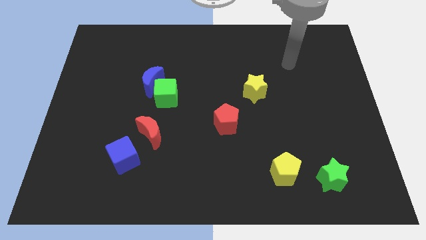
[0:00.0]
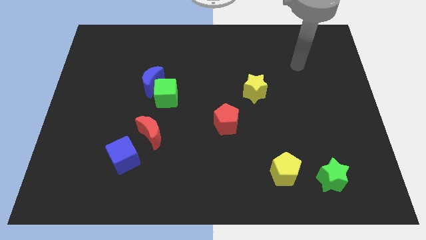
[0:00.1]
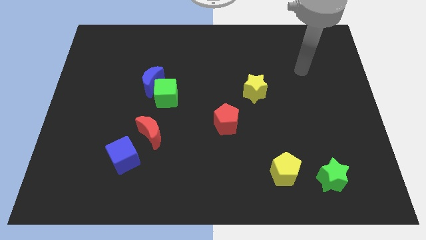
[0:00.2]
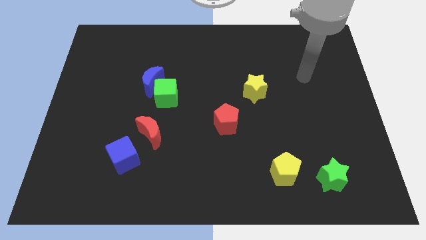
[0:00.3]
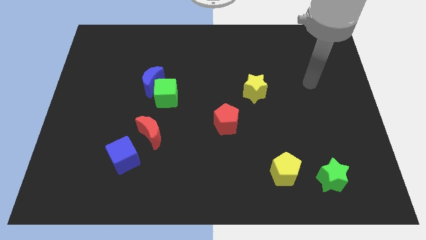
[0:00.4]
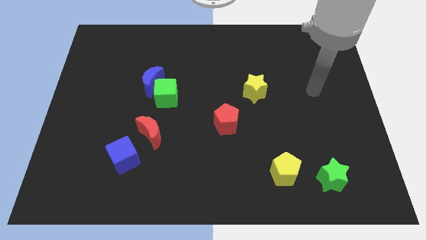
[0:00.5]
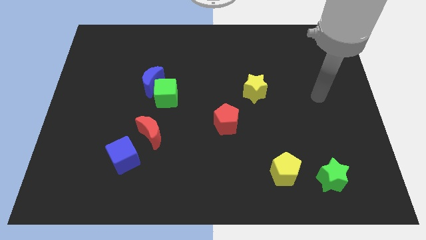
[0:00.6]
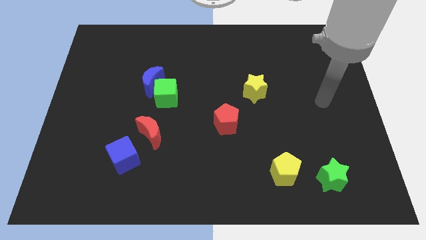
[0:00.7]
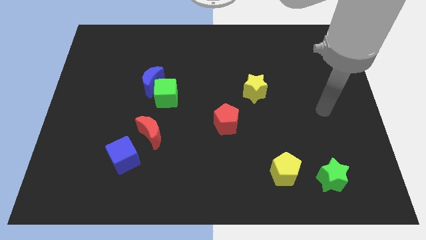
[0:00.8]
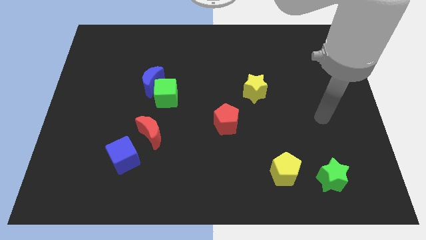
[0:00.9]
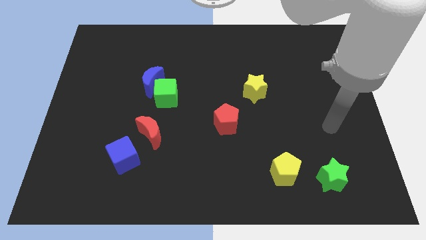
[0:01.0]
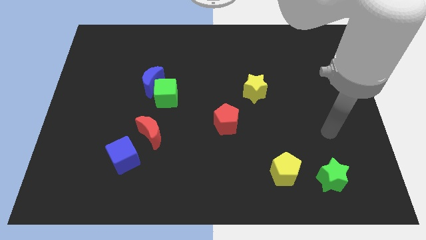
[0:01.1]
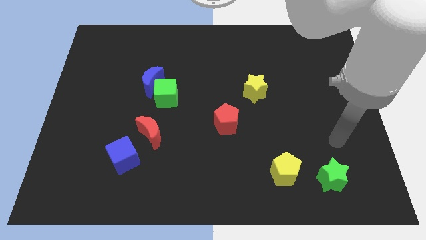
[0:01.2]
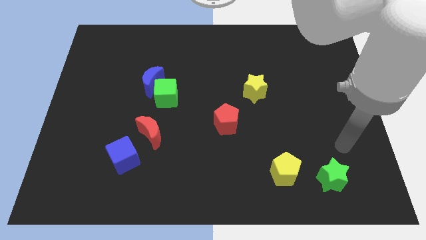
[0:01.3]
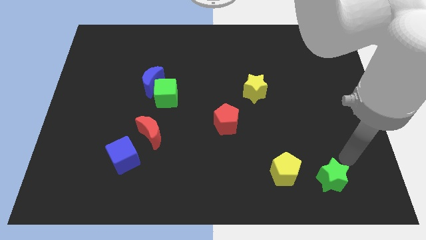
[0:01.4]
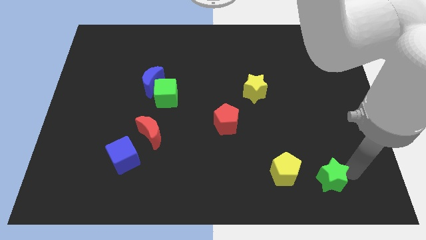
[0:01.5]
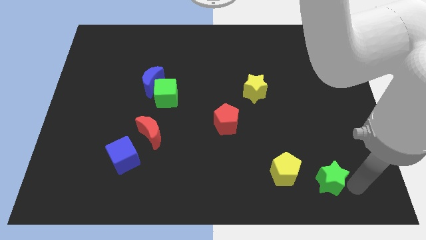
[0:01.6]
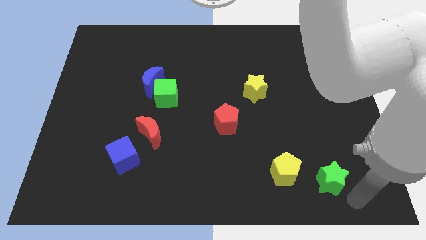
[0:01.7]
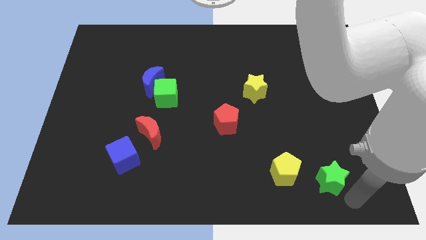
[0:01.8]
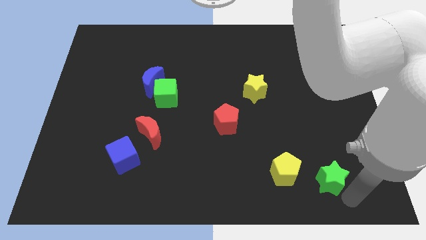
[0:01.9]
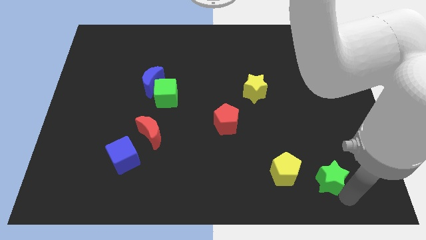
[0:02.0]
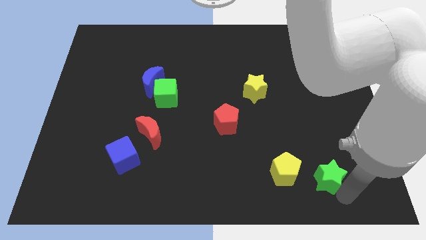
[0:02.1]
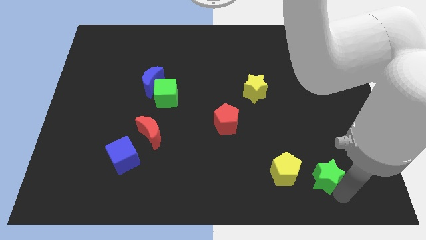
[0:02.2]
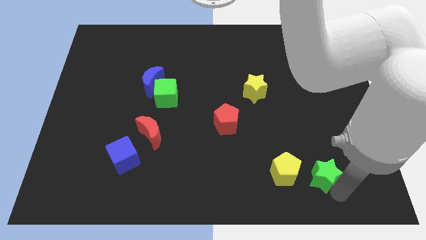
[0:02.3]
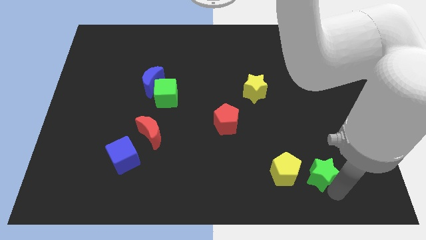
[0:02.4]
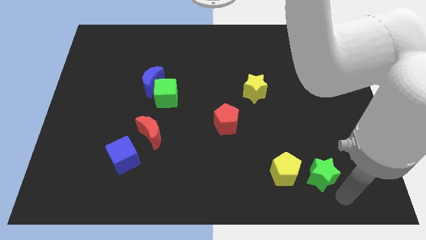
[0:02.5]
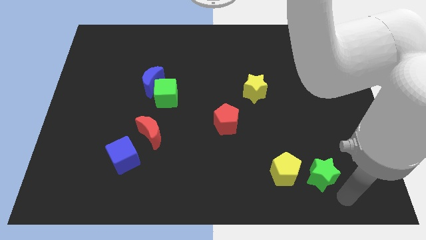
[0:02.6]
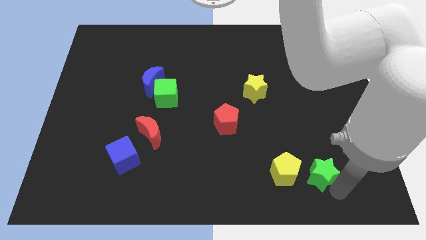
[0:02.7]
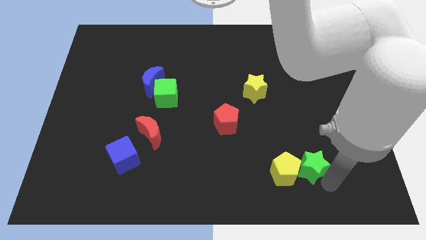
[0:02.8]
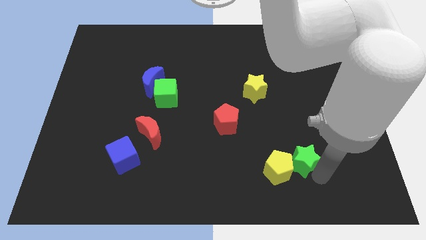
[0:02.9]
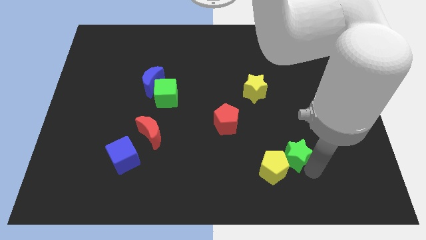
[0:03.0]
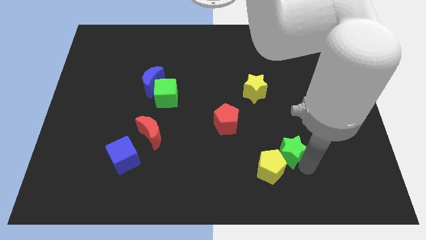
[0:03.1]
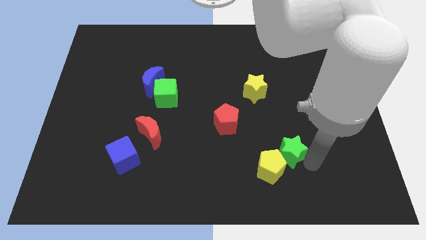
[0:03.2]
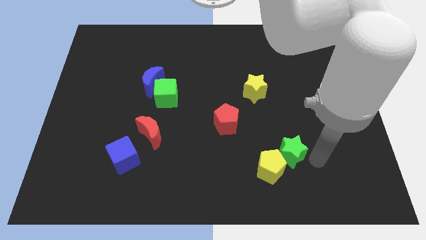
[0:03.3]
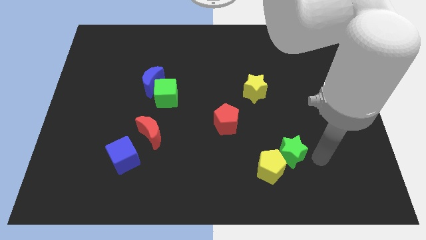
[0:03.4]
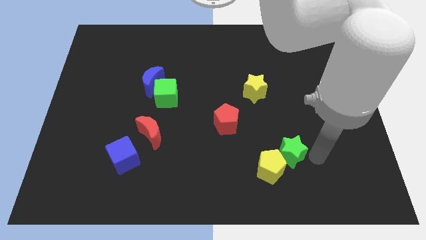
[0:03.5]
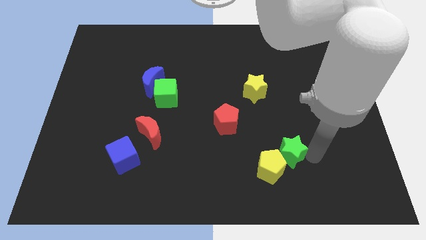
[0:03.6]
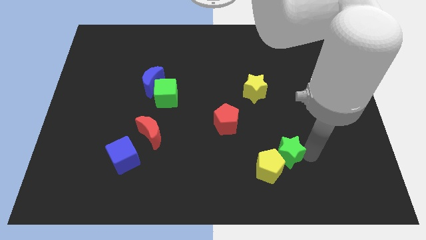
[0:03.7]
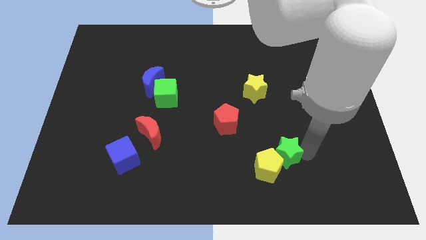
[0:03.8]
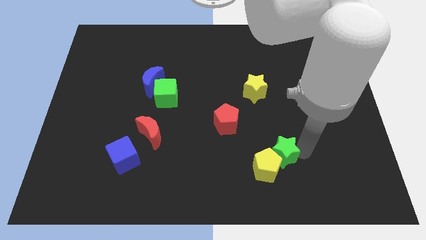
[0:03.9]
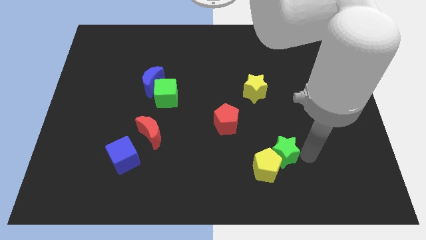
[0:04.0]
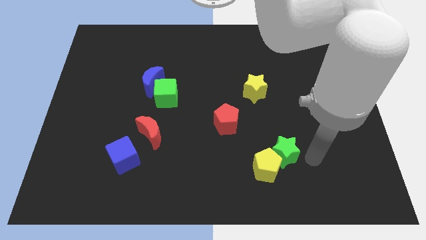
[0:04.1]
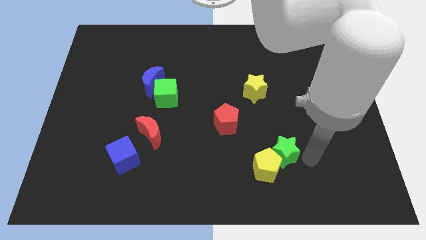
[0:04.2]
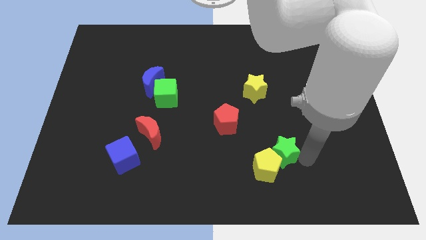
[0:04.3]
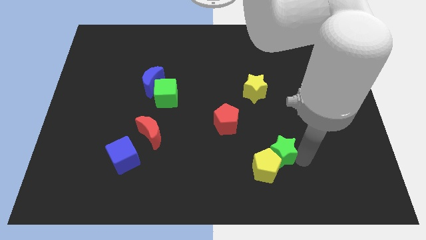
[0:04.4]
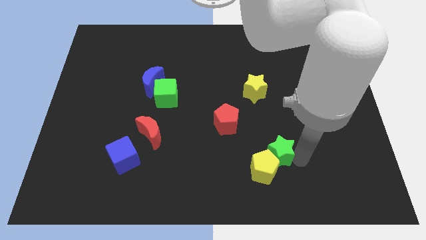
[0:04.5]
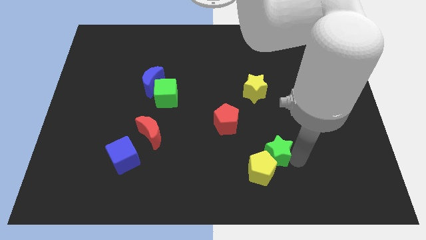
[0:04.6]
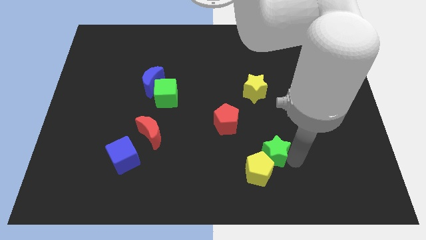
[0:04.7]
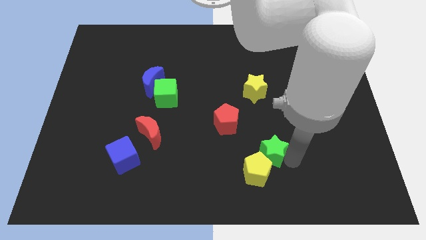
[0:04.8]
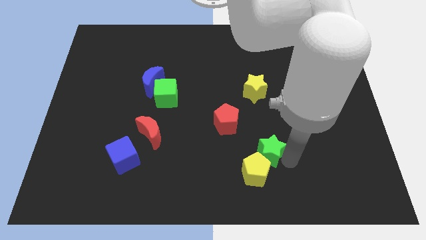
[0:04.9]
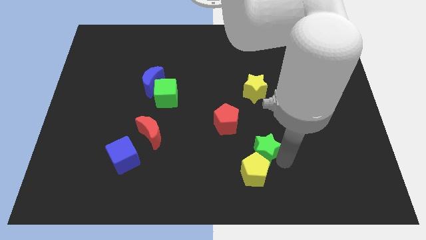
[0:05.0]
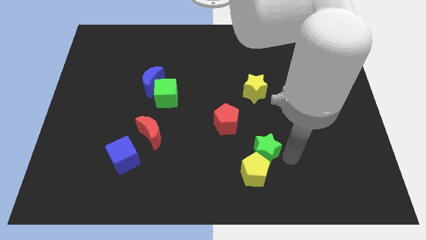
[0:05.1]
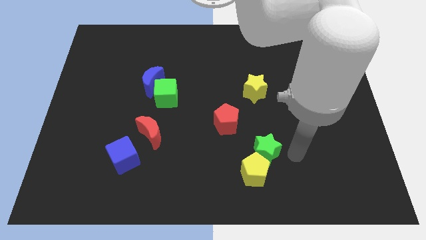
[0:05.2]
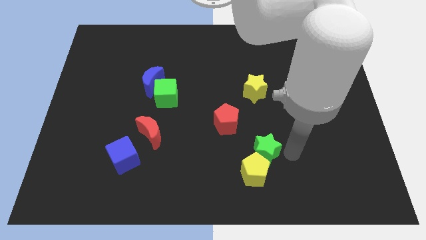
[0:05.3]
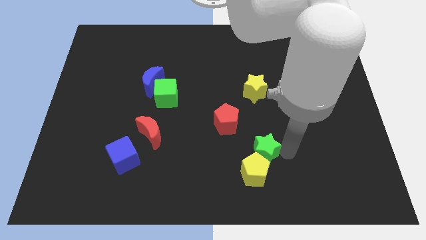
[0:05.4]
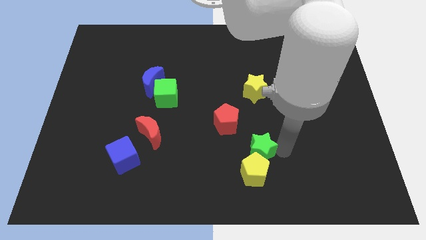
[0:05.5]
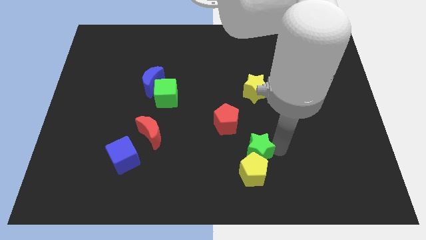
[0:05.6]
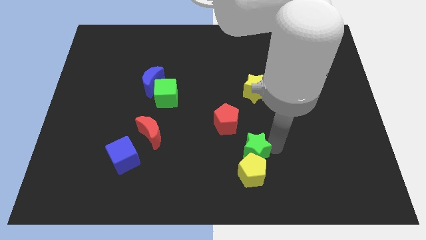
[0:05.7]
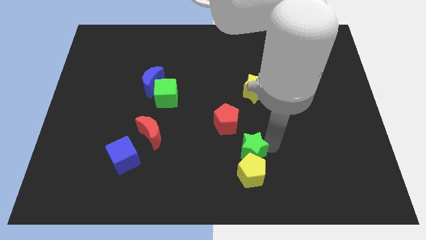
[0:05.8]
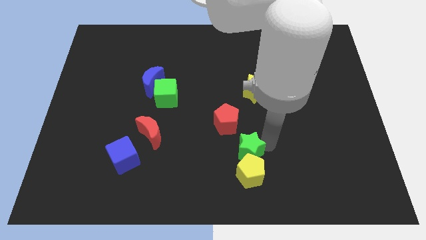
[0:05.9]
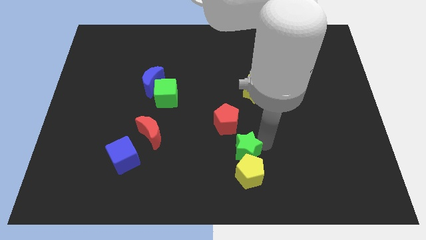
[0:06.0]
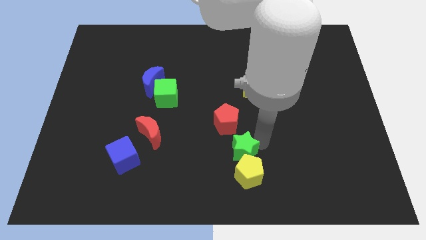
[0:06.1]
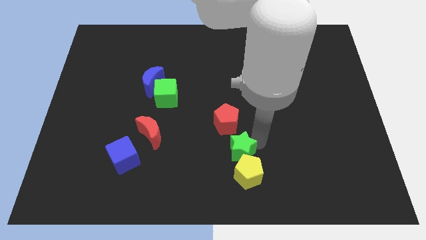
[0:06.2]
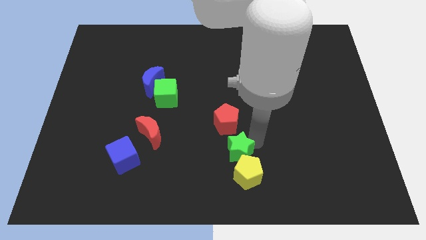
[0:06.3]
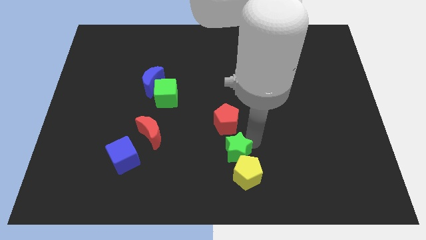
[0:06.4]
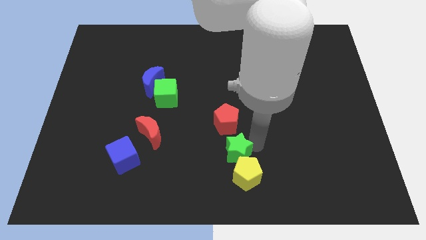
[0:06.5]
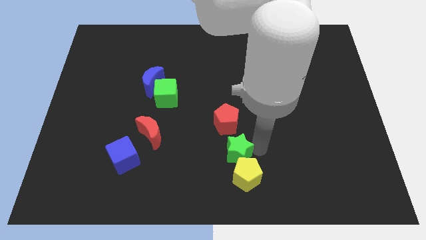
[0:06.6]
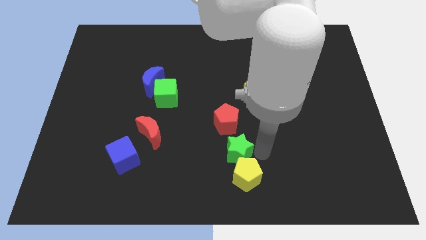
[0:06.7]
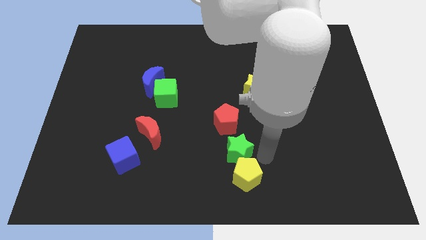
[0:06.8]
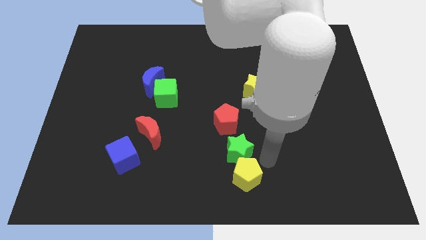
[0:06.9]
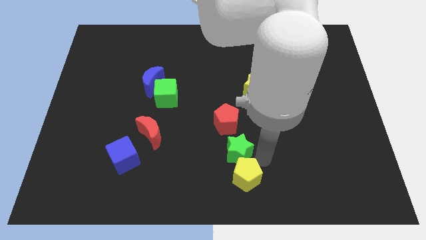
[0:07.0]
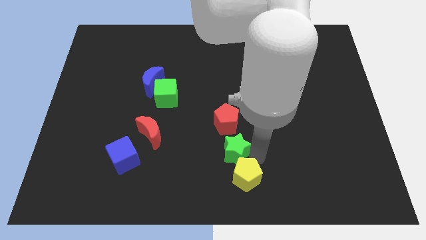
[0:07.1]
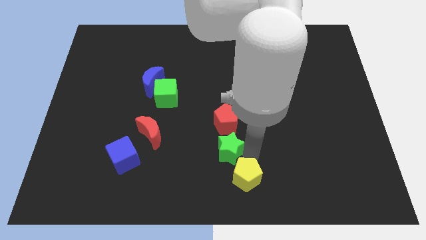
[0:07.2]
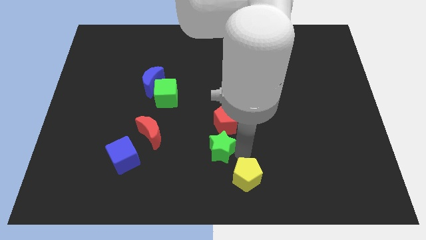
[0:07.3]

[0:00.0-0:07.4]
slide the green star diagonally down and to the left of the red pentagon

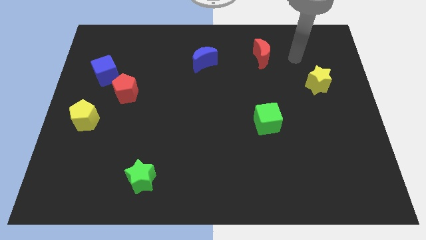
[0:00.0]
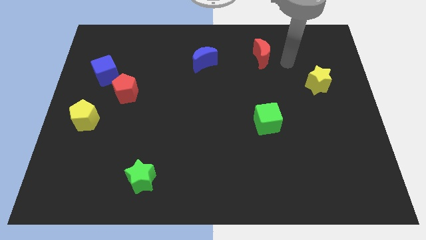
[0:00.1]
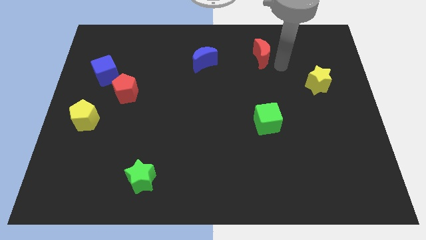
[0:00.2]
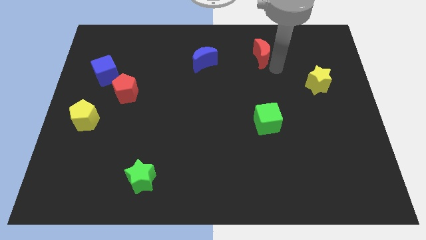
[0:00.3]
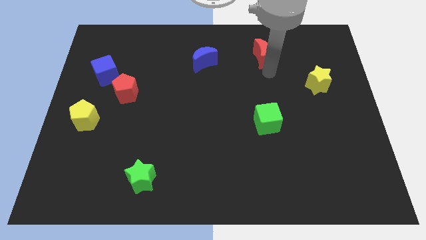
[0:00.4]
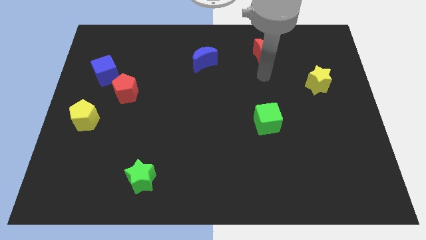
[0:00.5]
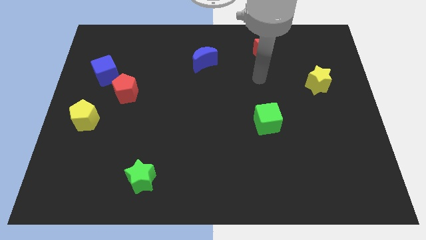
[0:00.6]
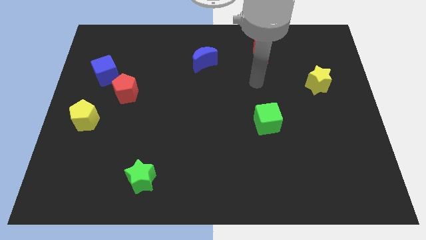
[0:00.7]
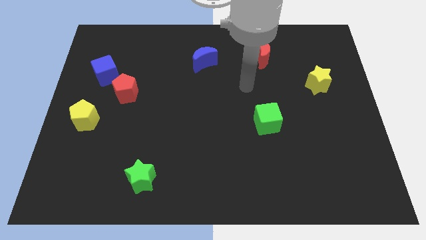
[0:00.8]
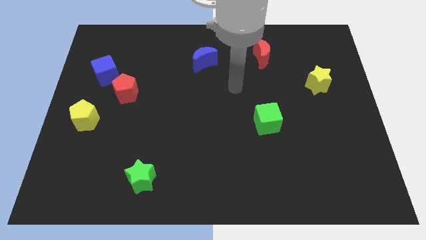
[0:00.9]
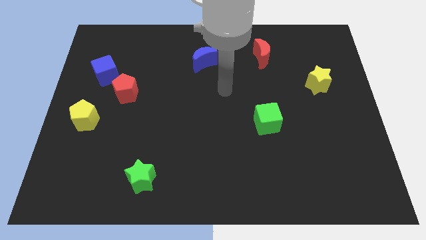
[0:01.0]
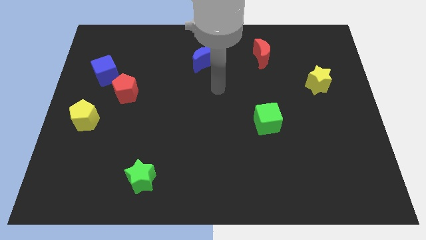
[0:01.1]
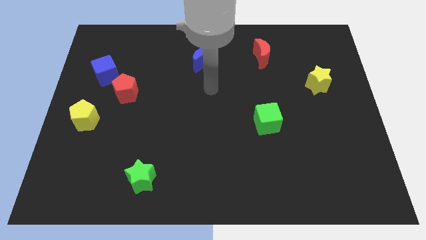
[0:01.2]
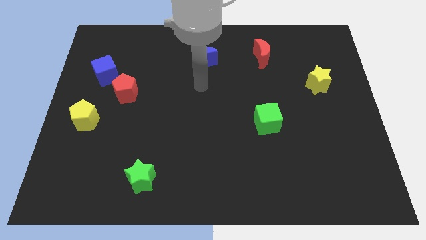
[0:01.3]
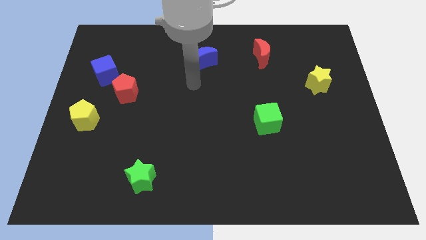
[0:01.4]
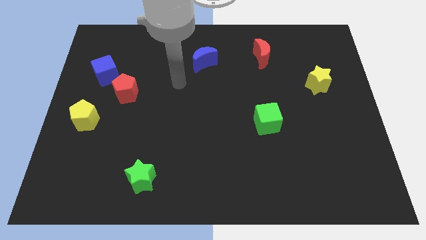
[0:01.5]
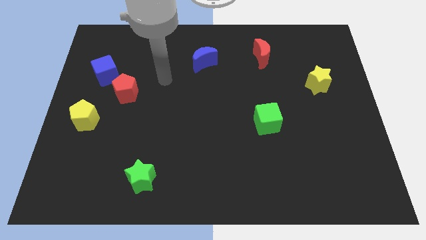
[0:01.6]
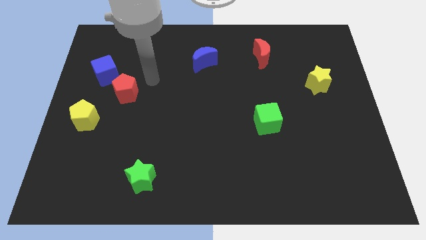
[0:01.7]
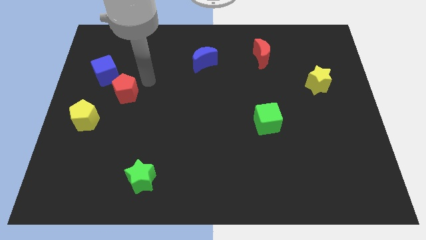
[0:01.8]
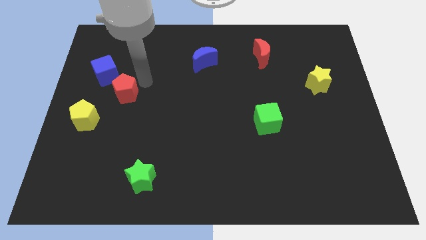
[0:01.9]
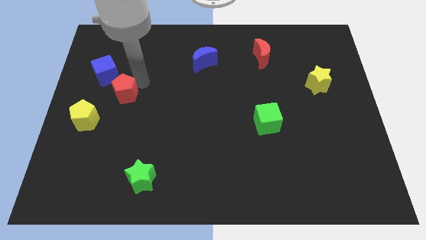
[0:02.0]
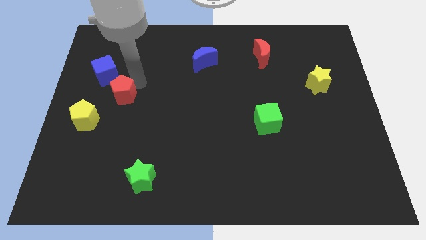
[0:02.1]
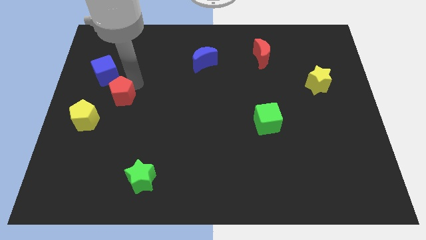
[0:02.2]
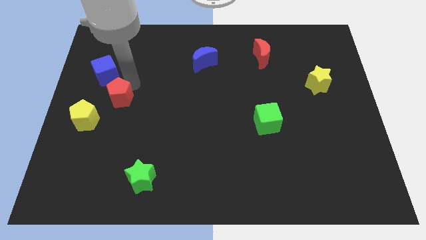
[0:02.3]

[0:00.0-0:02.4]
put the red pentagon to the bottom of the blue cube
